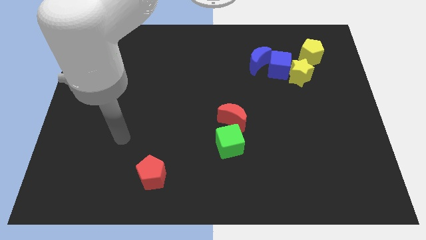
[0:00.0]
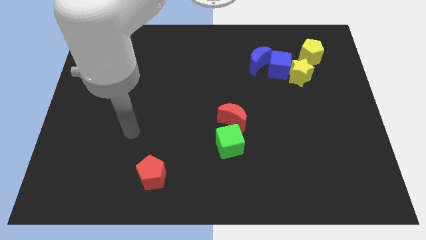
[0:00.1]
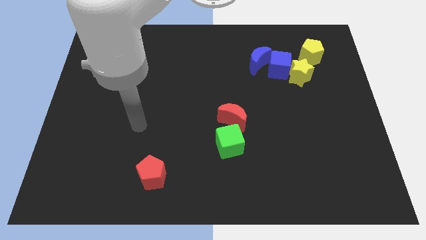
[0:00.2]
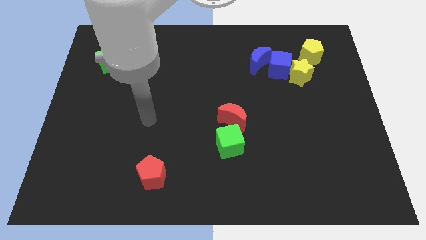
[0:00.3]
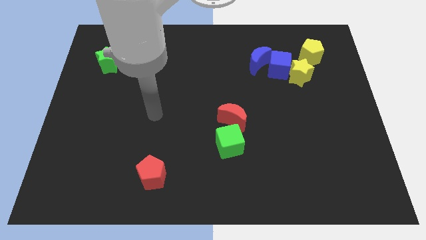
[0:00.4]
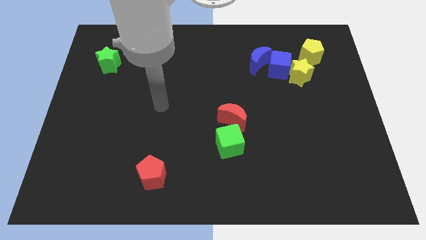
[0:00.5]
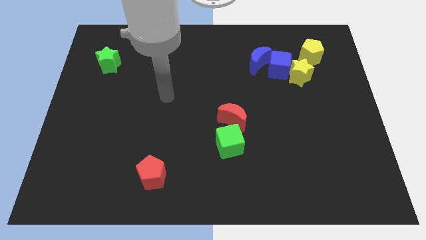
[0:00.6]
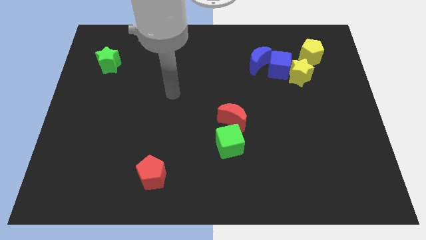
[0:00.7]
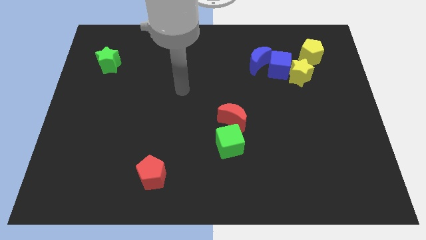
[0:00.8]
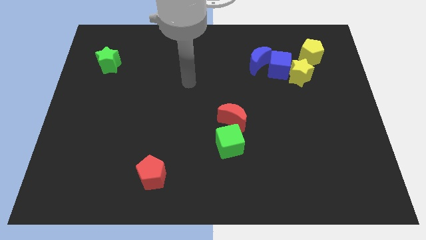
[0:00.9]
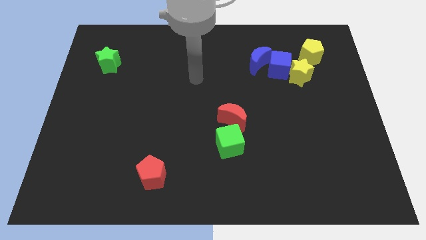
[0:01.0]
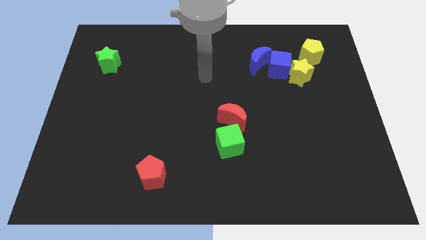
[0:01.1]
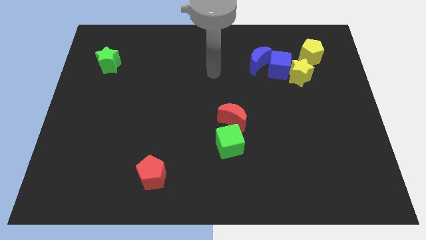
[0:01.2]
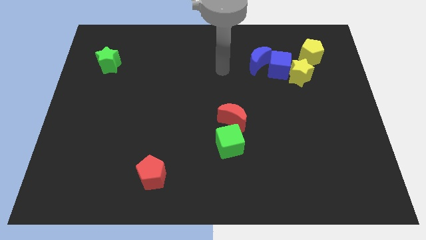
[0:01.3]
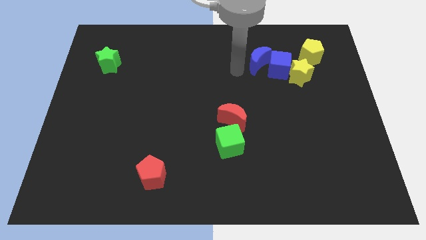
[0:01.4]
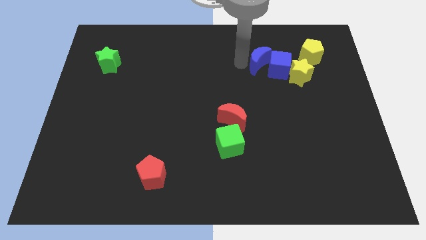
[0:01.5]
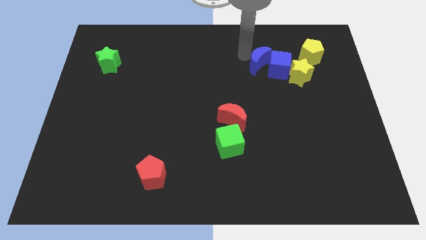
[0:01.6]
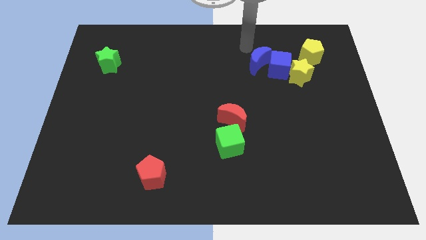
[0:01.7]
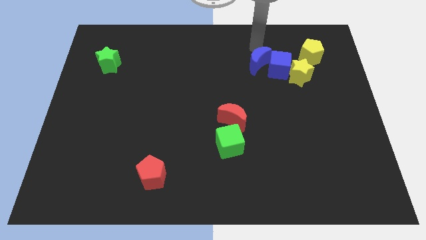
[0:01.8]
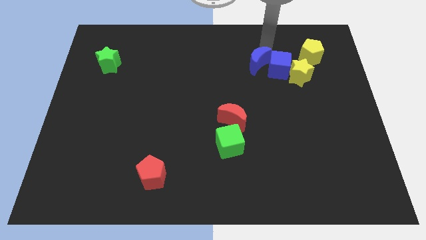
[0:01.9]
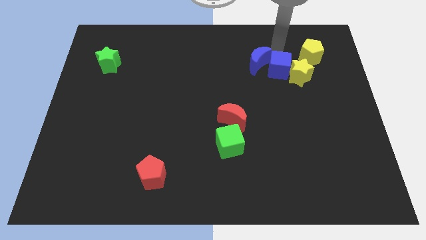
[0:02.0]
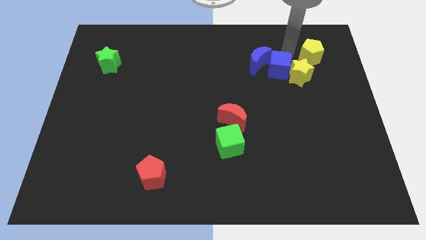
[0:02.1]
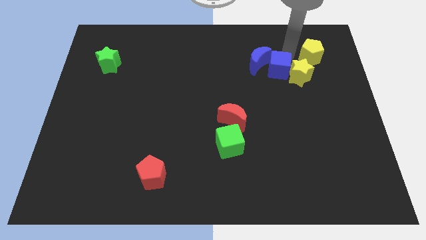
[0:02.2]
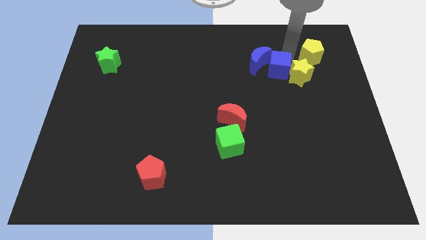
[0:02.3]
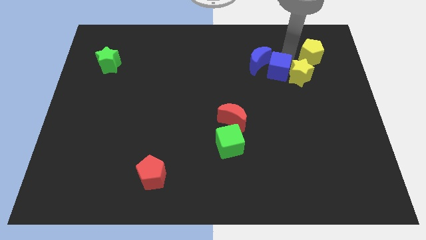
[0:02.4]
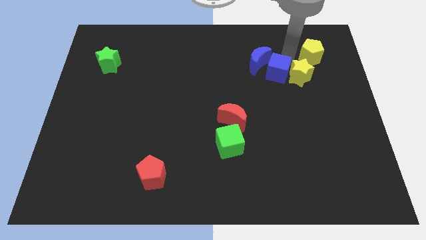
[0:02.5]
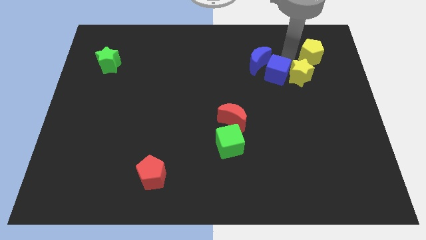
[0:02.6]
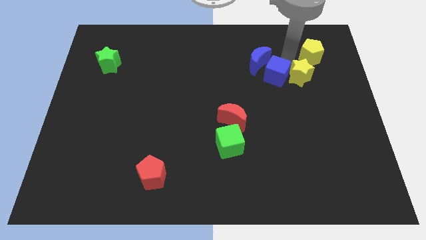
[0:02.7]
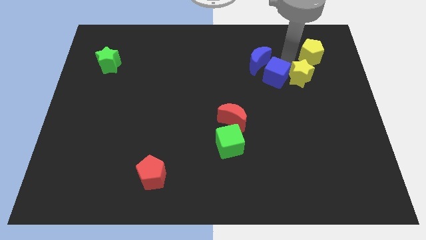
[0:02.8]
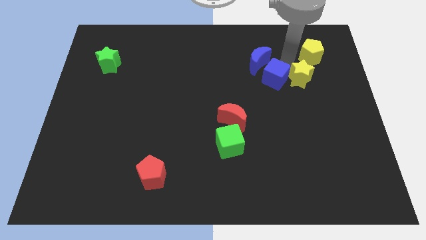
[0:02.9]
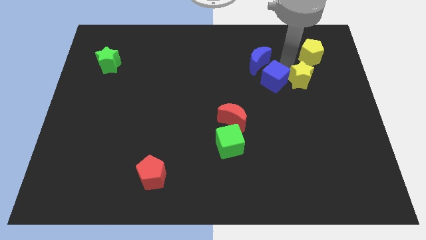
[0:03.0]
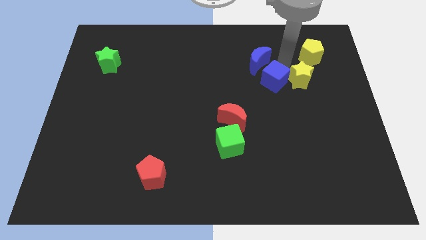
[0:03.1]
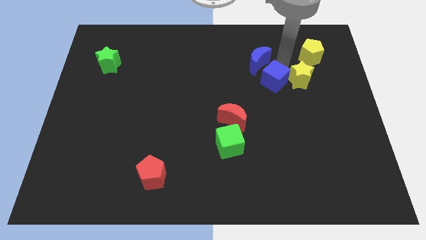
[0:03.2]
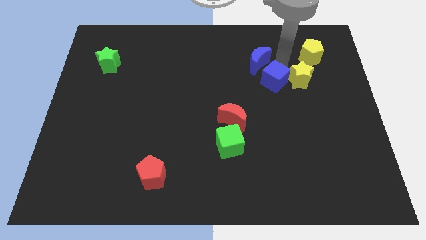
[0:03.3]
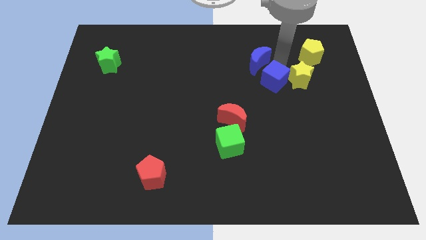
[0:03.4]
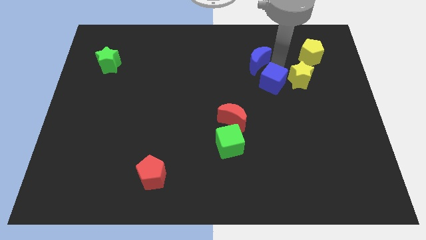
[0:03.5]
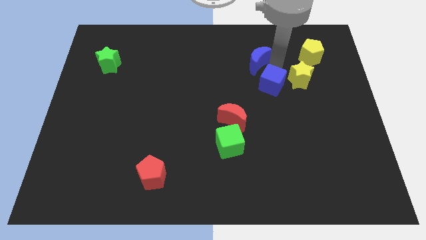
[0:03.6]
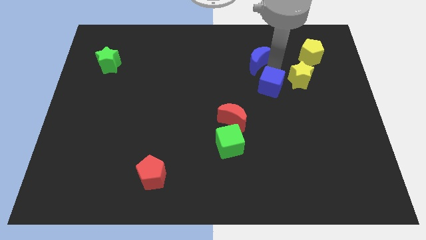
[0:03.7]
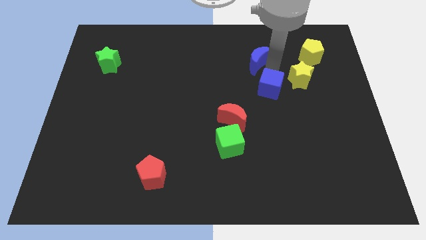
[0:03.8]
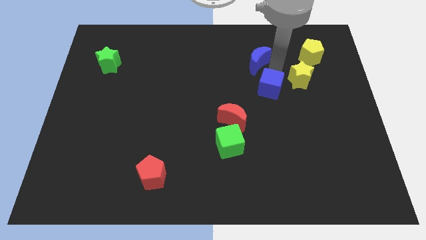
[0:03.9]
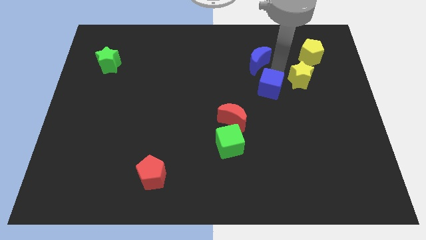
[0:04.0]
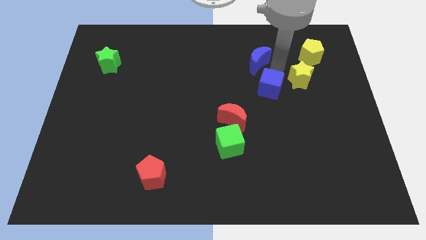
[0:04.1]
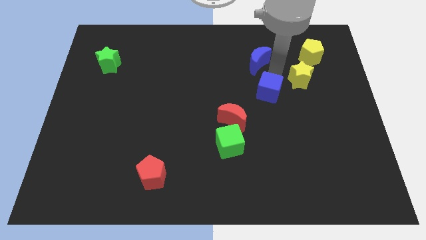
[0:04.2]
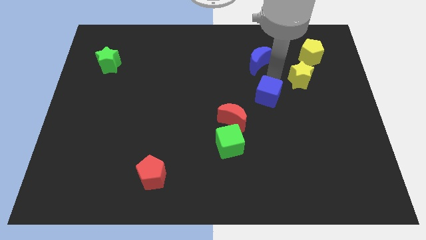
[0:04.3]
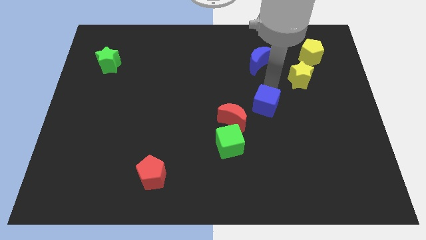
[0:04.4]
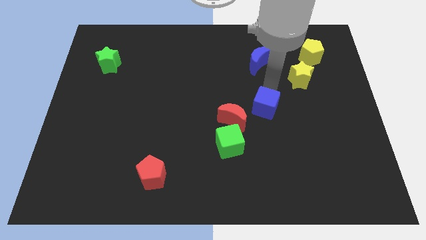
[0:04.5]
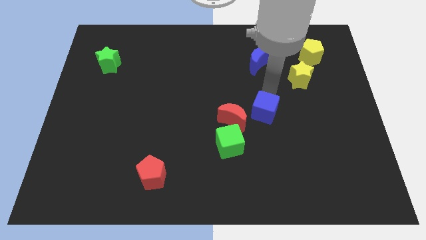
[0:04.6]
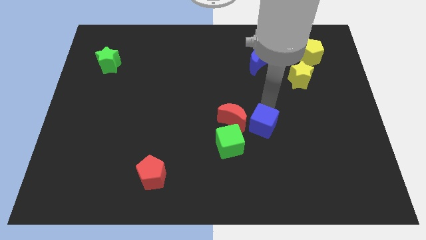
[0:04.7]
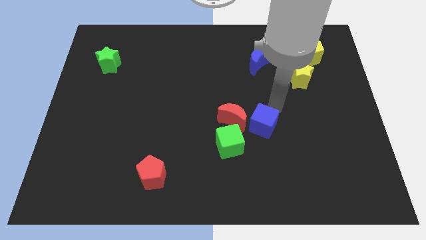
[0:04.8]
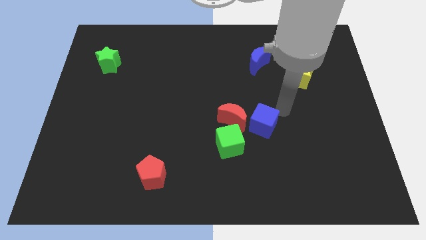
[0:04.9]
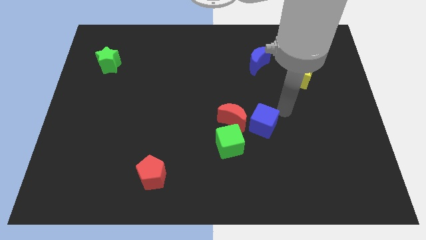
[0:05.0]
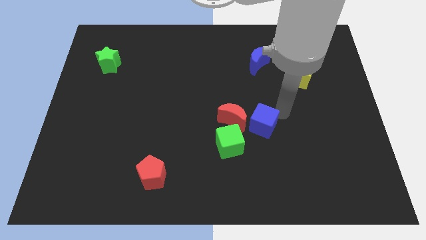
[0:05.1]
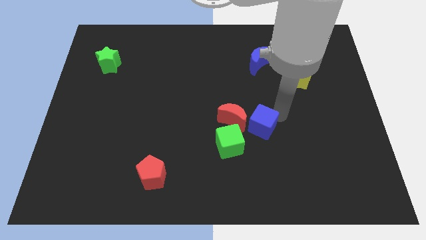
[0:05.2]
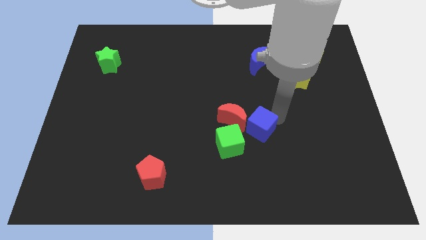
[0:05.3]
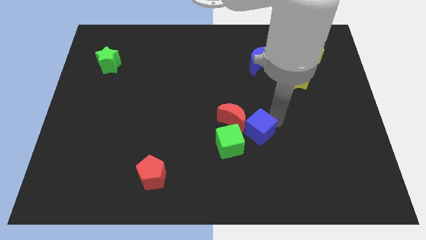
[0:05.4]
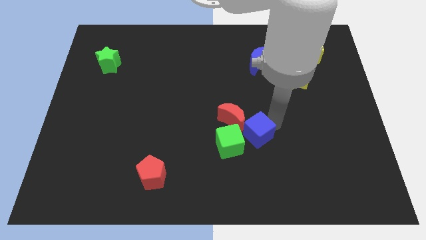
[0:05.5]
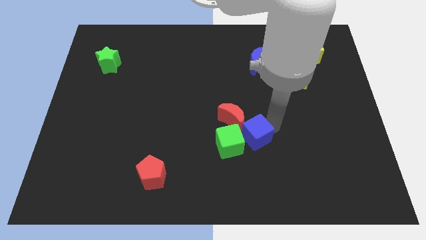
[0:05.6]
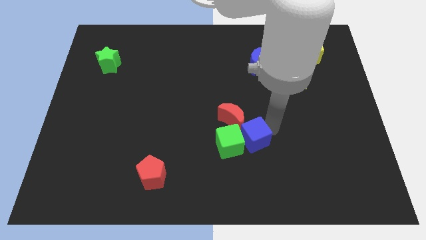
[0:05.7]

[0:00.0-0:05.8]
put the blue cube next to the green cube

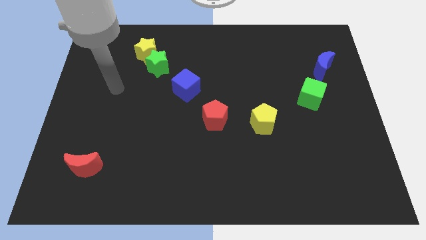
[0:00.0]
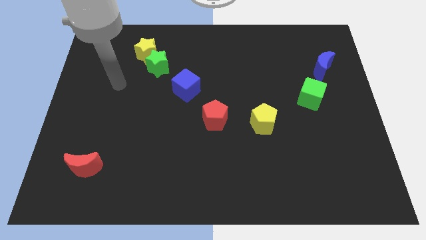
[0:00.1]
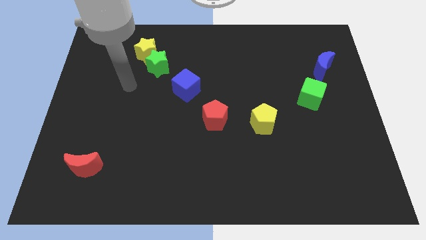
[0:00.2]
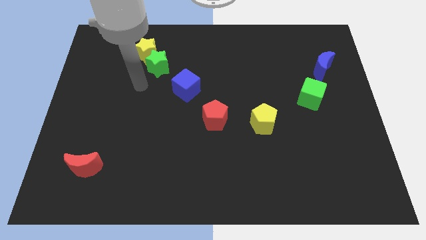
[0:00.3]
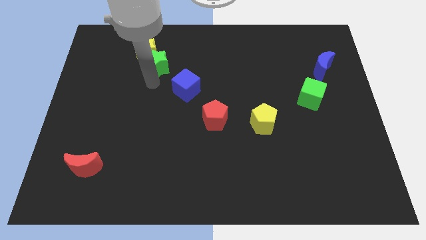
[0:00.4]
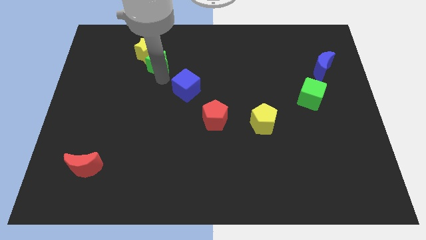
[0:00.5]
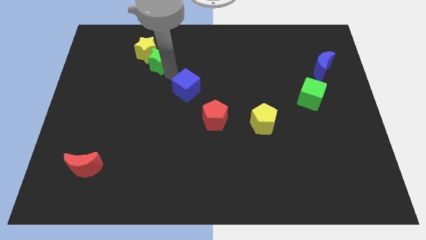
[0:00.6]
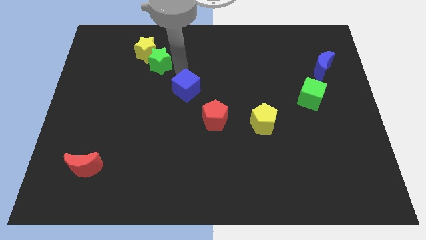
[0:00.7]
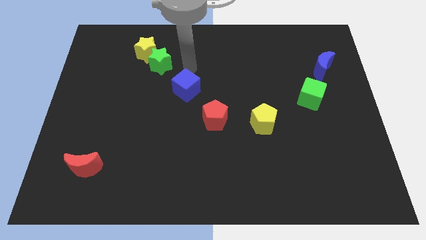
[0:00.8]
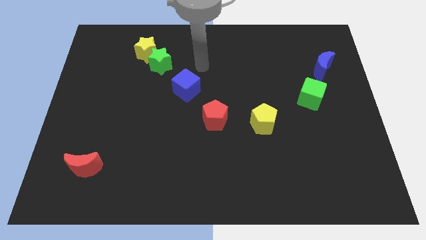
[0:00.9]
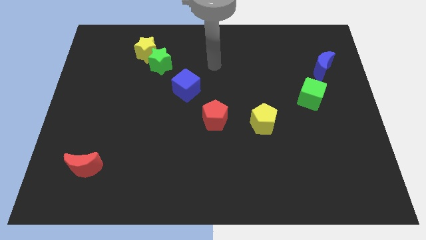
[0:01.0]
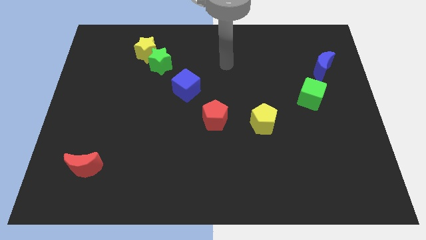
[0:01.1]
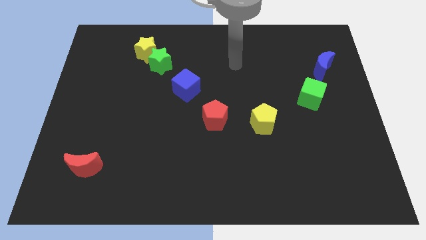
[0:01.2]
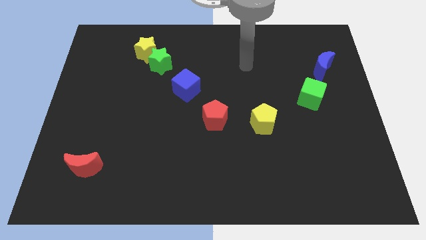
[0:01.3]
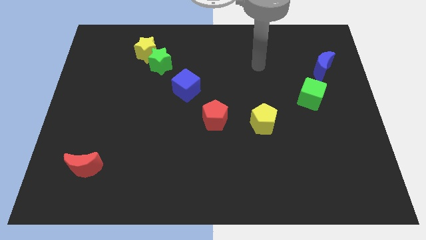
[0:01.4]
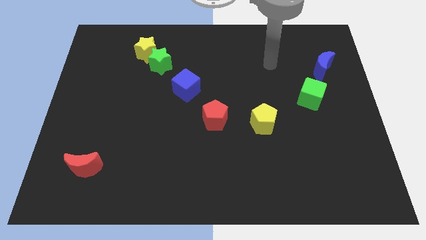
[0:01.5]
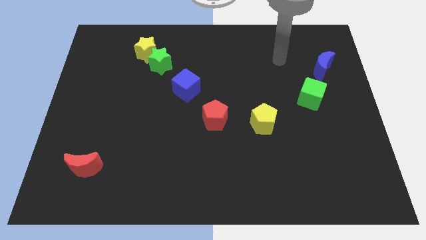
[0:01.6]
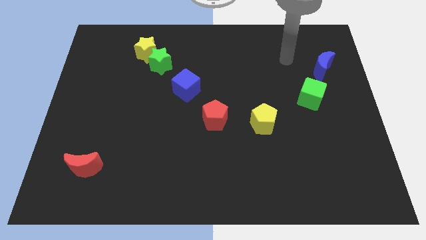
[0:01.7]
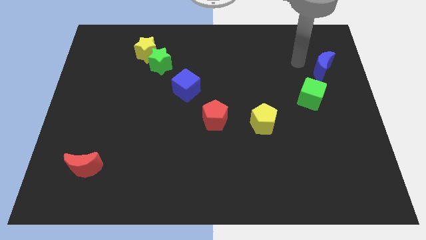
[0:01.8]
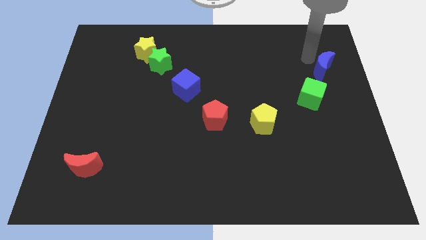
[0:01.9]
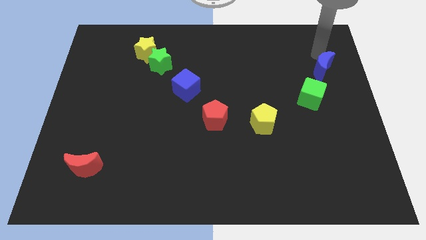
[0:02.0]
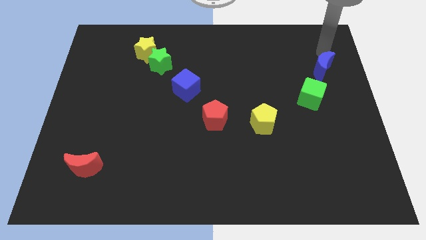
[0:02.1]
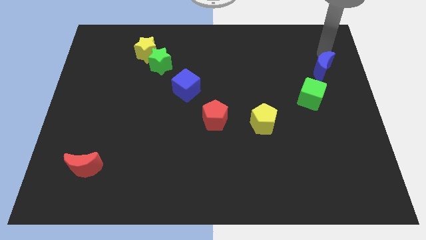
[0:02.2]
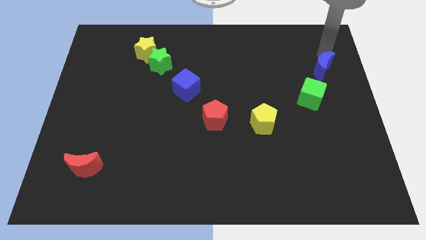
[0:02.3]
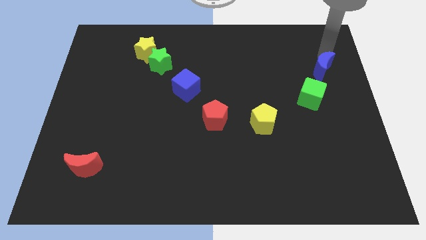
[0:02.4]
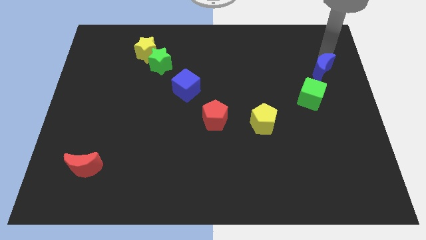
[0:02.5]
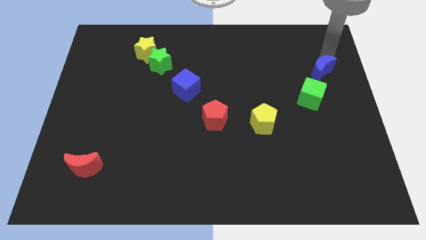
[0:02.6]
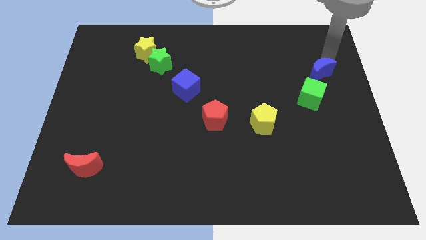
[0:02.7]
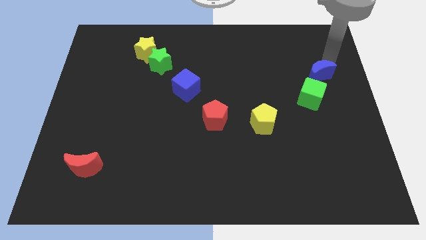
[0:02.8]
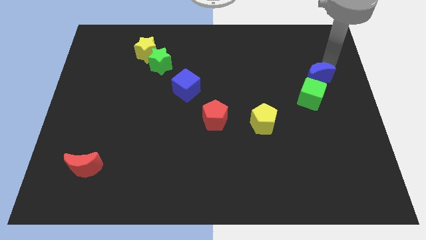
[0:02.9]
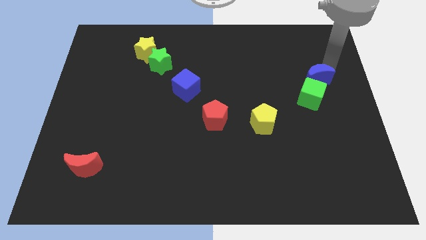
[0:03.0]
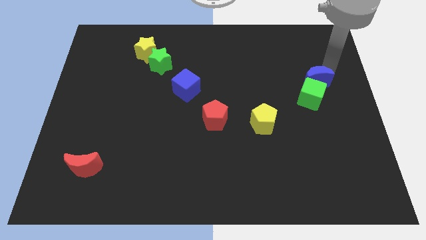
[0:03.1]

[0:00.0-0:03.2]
slide the blue moon next to the green cube
